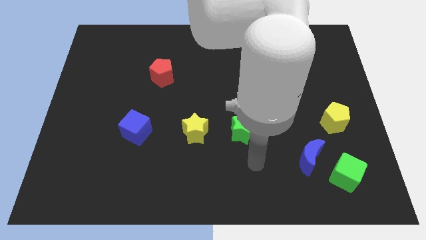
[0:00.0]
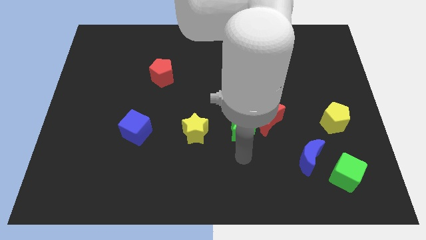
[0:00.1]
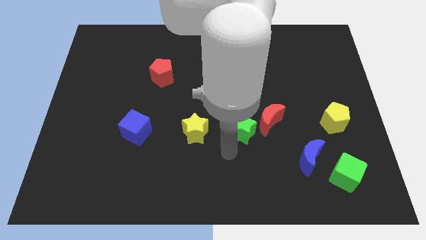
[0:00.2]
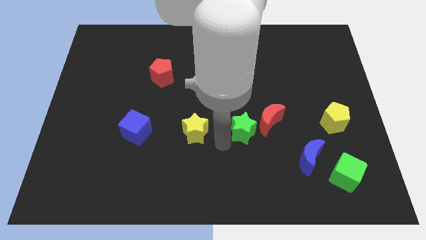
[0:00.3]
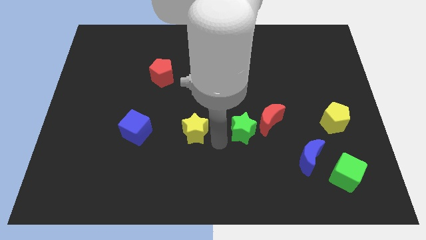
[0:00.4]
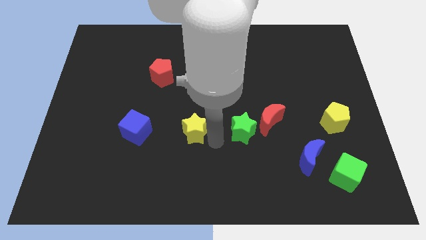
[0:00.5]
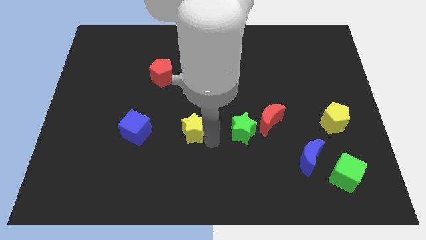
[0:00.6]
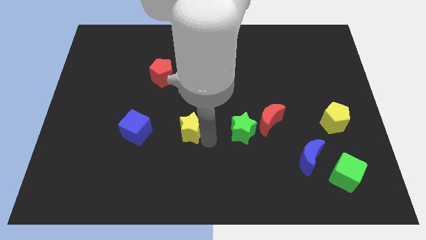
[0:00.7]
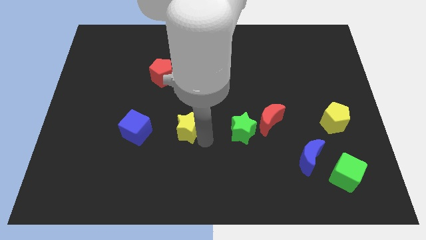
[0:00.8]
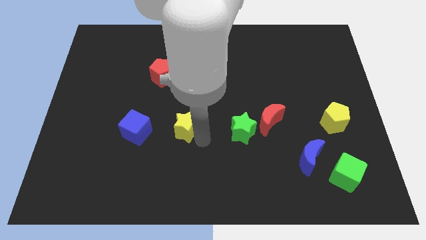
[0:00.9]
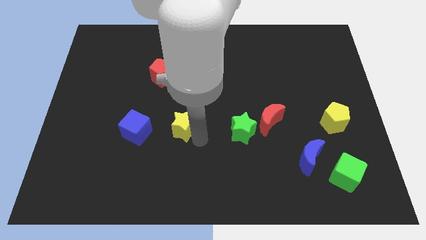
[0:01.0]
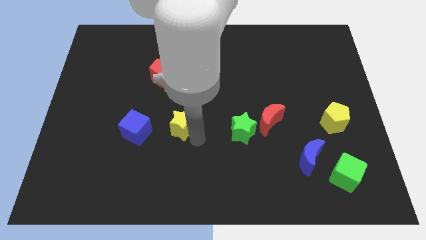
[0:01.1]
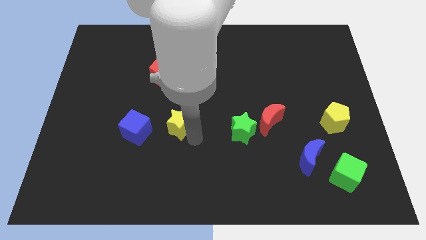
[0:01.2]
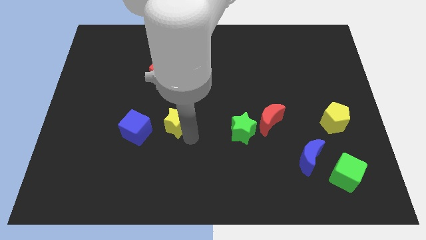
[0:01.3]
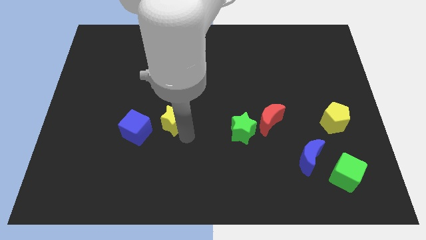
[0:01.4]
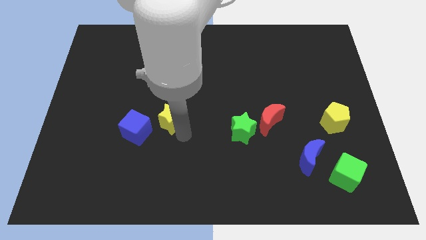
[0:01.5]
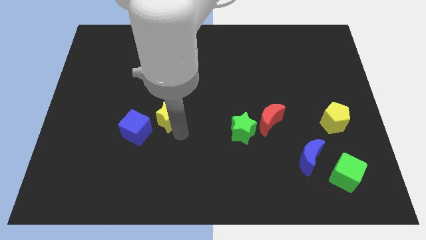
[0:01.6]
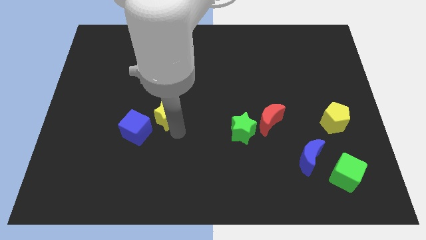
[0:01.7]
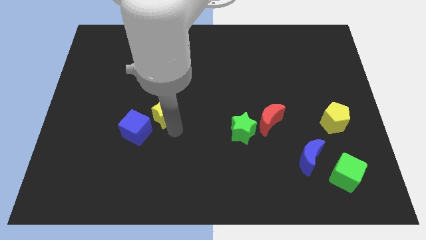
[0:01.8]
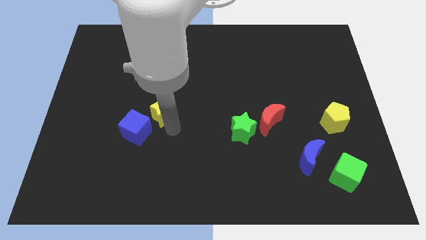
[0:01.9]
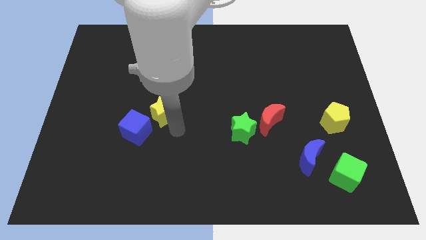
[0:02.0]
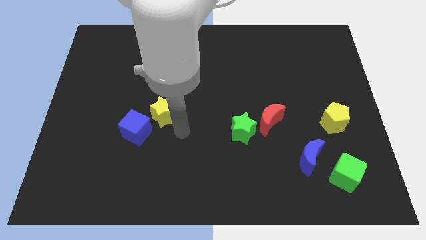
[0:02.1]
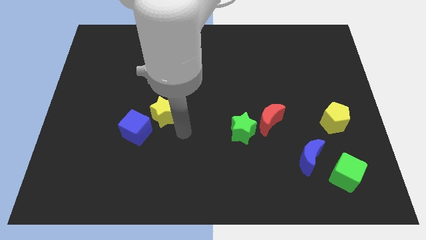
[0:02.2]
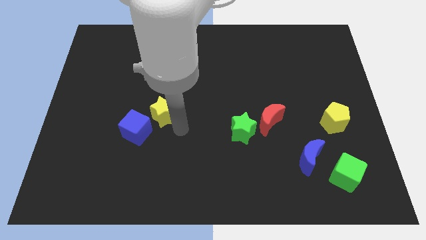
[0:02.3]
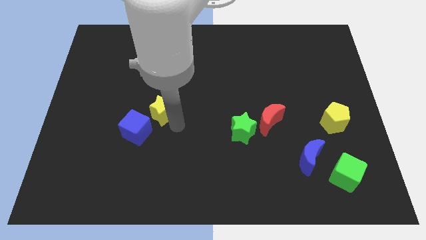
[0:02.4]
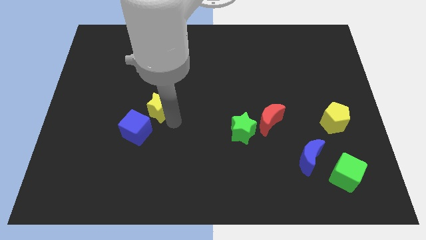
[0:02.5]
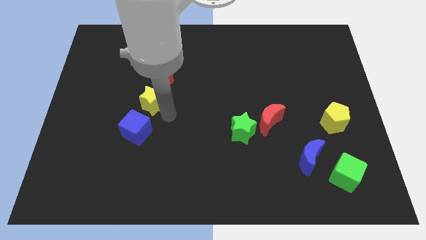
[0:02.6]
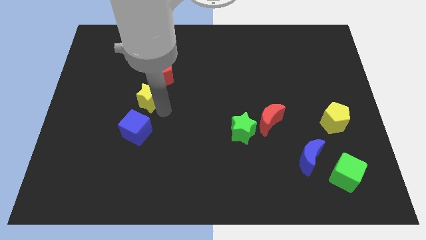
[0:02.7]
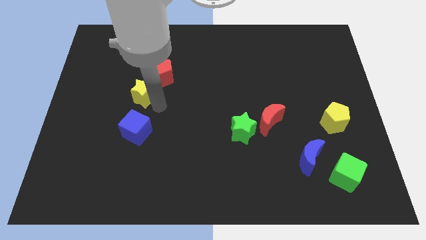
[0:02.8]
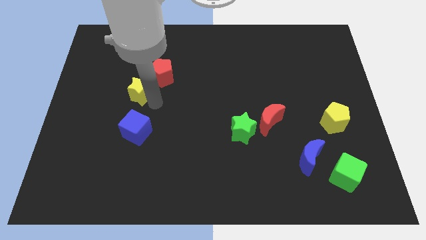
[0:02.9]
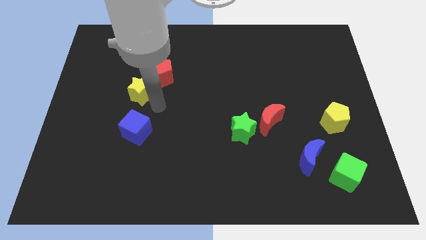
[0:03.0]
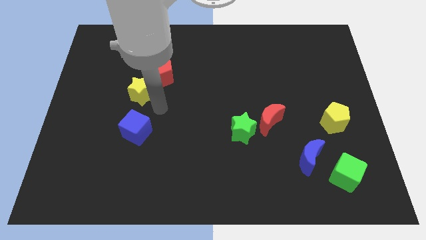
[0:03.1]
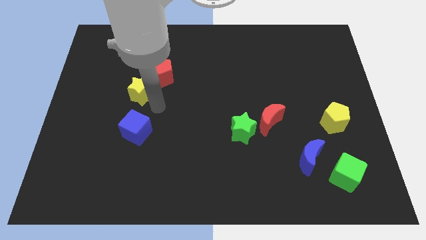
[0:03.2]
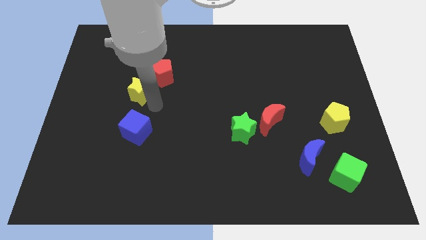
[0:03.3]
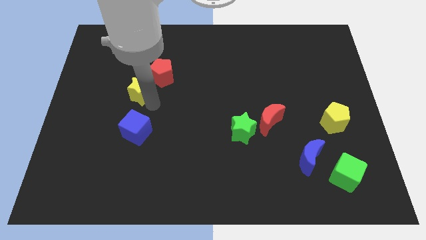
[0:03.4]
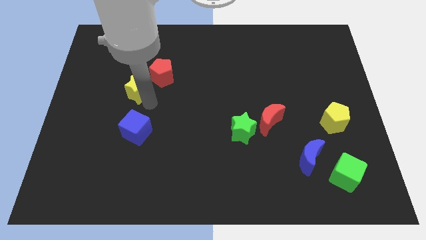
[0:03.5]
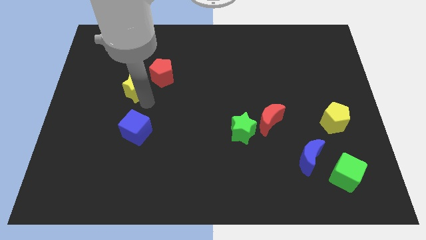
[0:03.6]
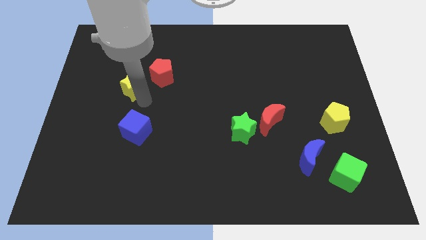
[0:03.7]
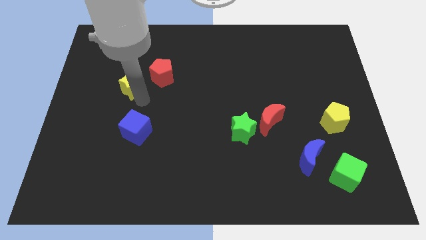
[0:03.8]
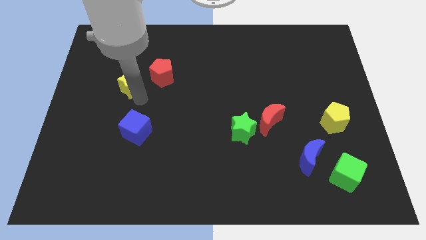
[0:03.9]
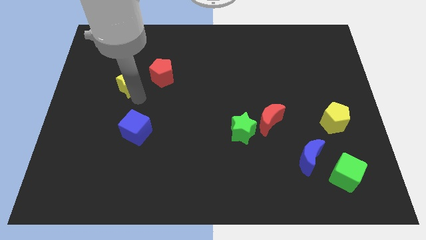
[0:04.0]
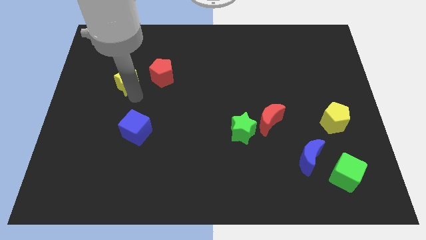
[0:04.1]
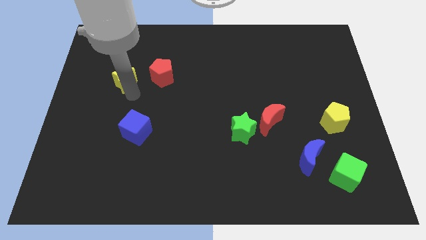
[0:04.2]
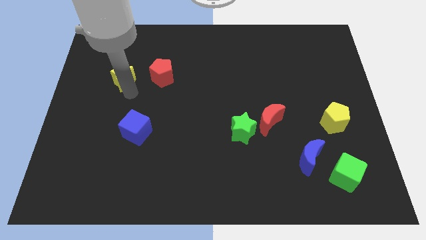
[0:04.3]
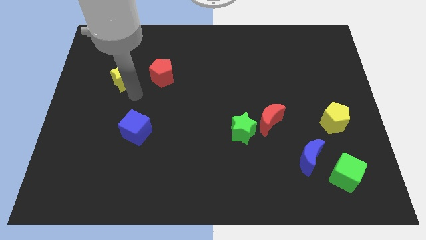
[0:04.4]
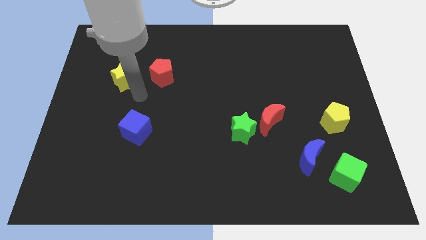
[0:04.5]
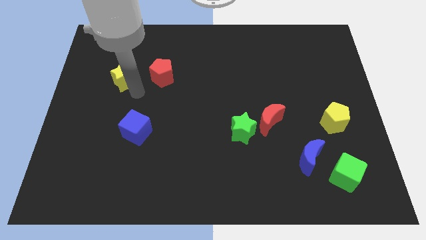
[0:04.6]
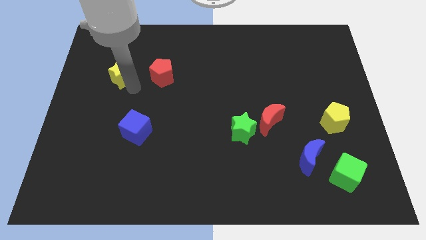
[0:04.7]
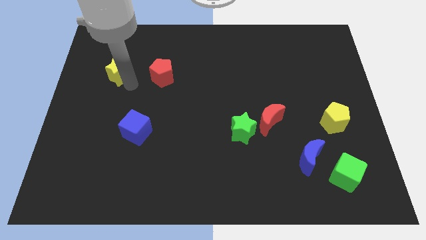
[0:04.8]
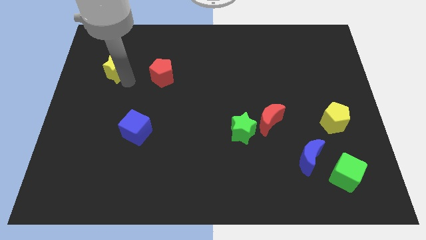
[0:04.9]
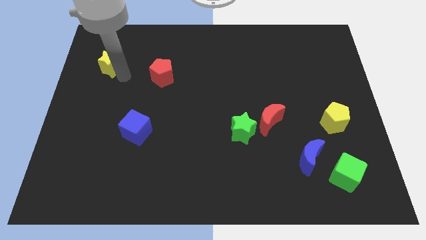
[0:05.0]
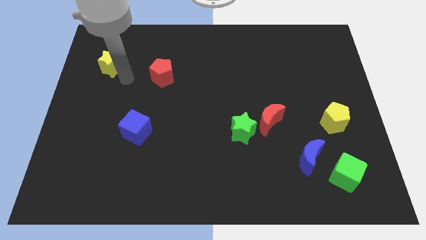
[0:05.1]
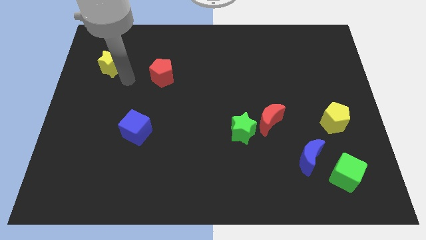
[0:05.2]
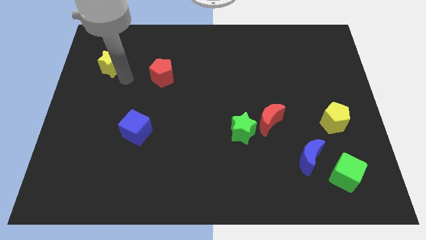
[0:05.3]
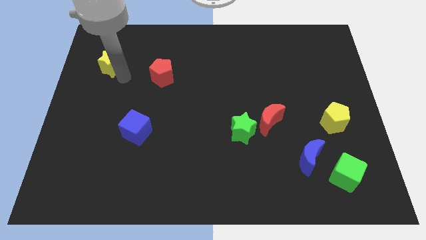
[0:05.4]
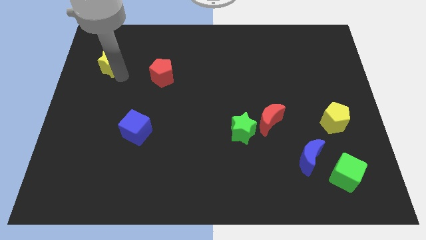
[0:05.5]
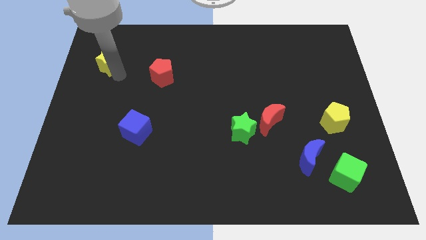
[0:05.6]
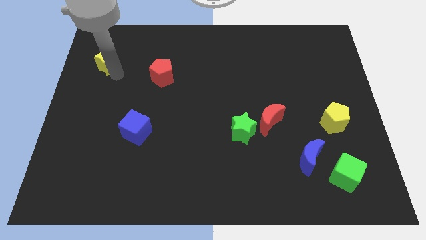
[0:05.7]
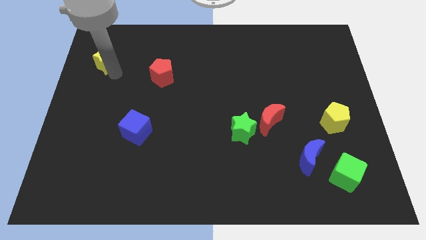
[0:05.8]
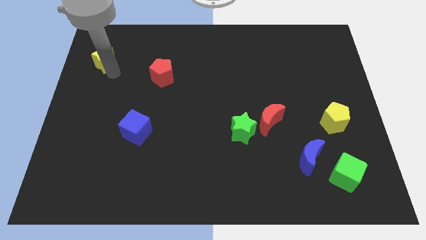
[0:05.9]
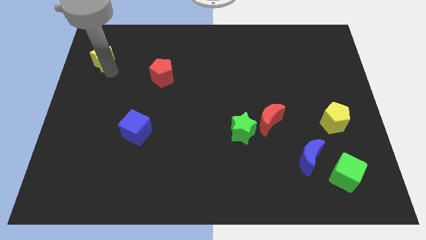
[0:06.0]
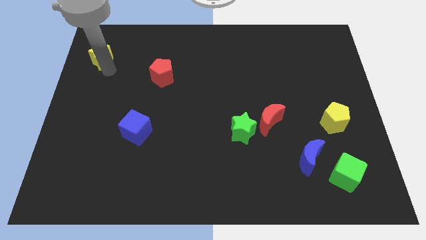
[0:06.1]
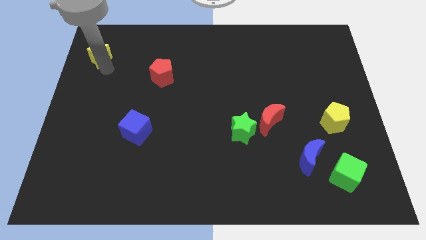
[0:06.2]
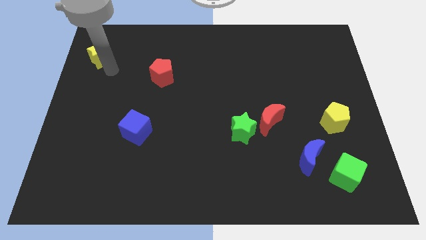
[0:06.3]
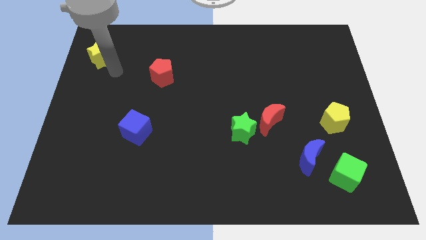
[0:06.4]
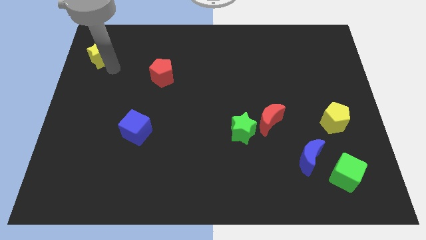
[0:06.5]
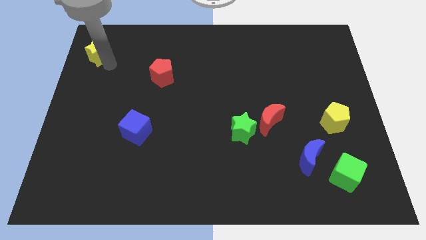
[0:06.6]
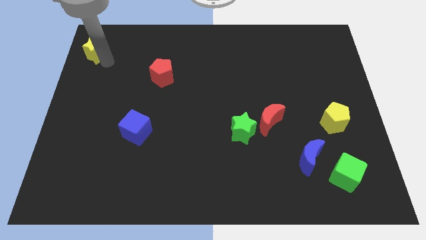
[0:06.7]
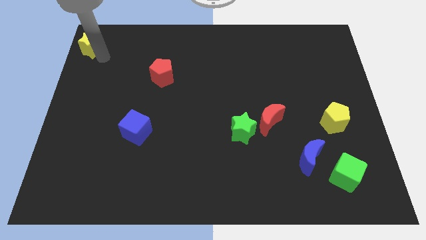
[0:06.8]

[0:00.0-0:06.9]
slide the yellow star to the upper left corner
